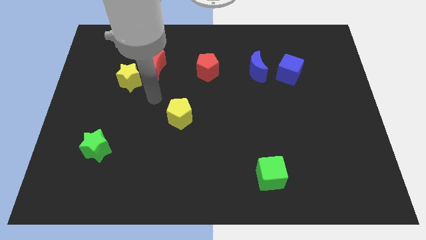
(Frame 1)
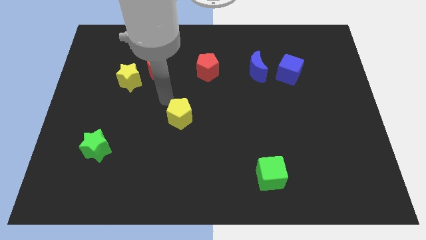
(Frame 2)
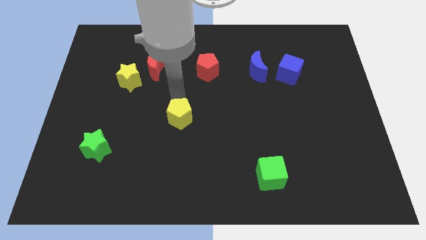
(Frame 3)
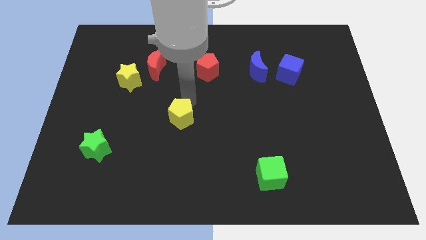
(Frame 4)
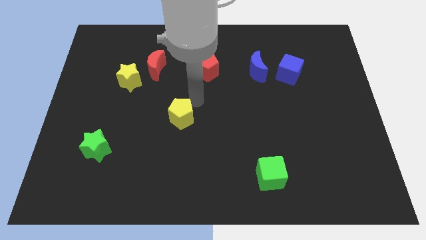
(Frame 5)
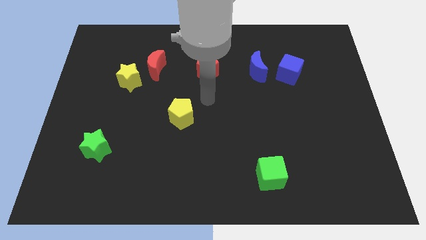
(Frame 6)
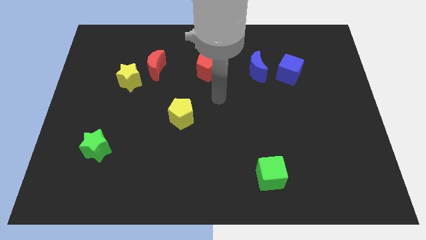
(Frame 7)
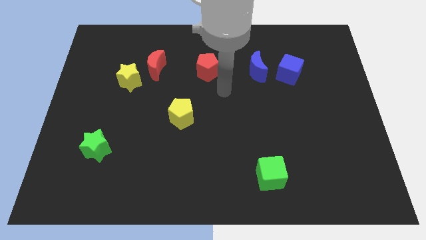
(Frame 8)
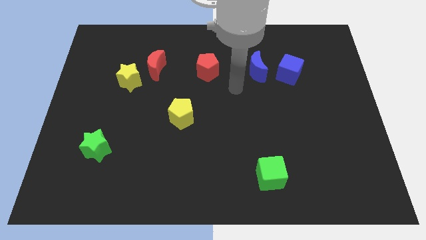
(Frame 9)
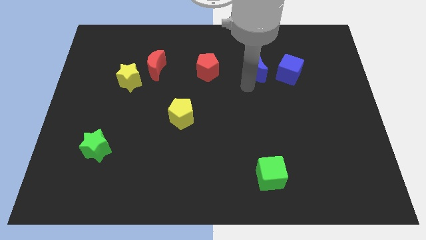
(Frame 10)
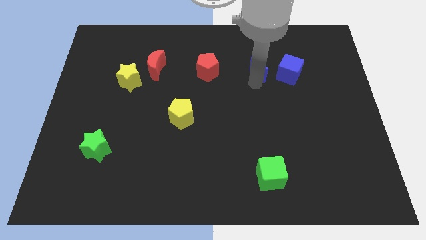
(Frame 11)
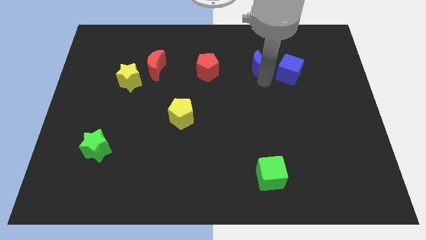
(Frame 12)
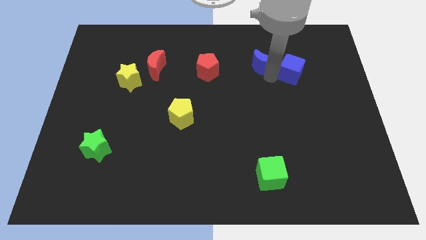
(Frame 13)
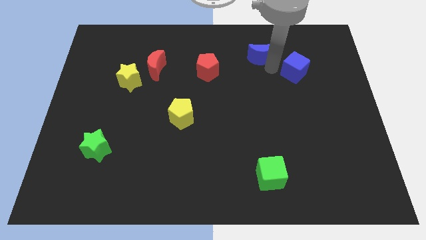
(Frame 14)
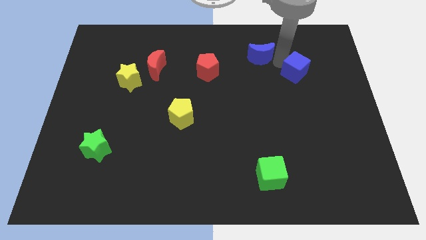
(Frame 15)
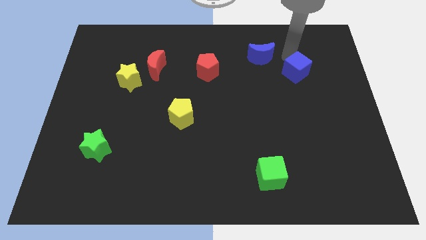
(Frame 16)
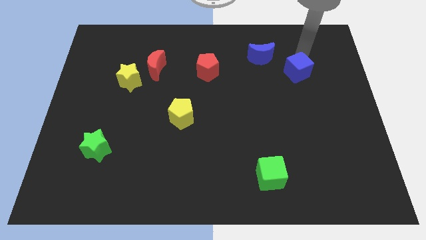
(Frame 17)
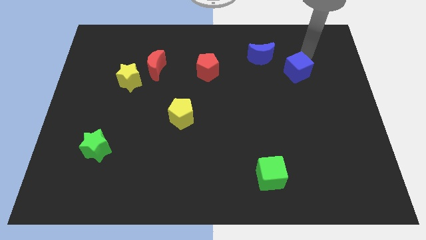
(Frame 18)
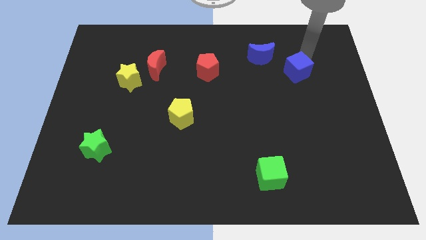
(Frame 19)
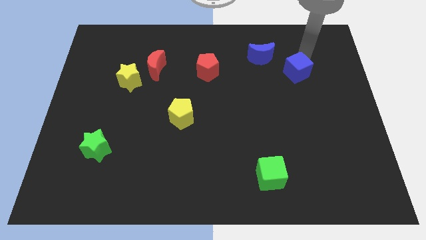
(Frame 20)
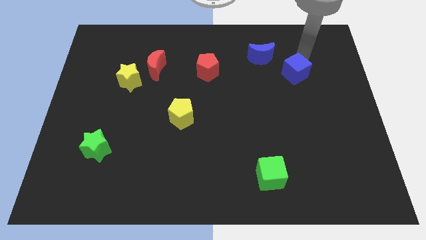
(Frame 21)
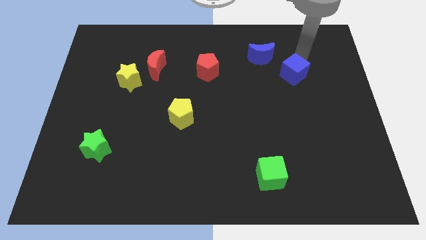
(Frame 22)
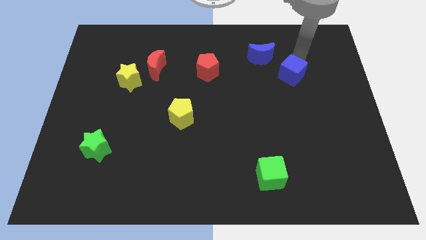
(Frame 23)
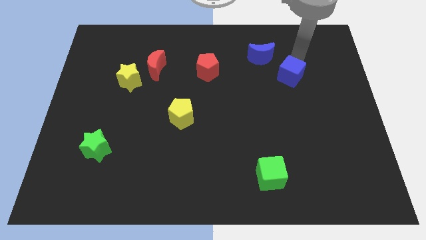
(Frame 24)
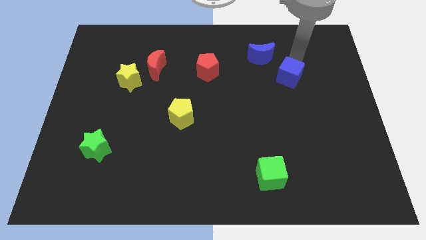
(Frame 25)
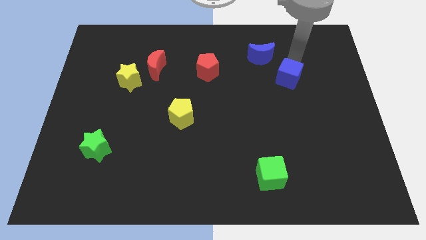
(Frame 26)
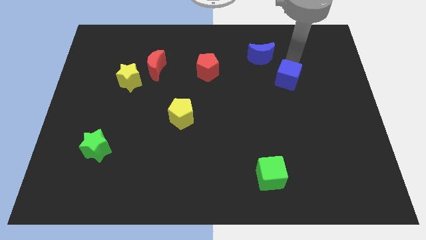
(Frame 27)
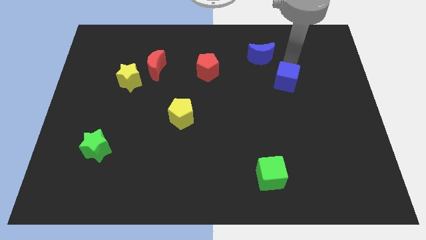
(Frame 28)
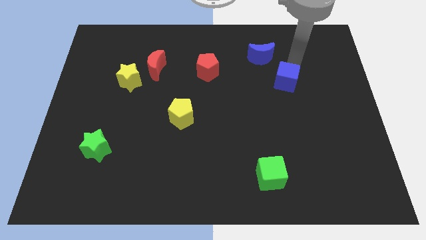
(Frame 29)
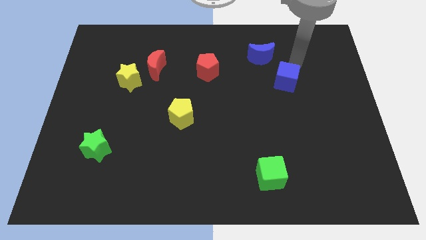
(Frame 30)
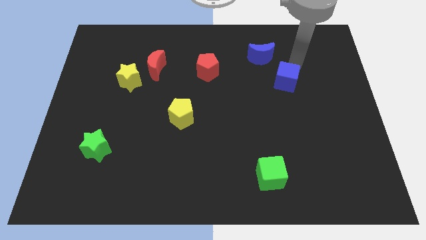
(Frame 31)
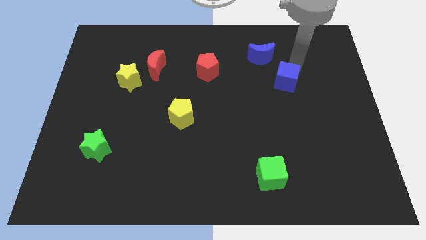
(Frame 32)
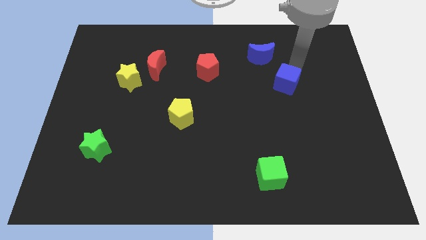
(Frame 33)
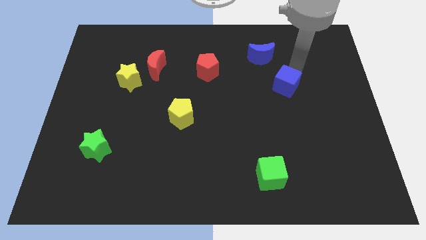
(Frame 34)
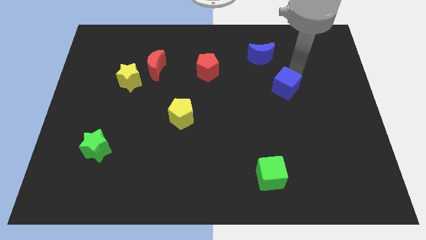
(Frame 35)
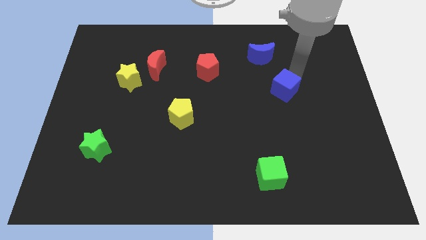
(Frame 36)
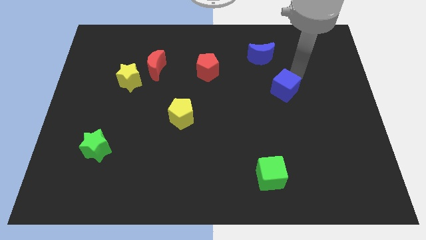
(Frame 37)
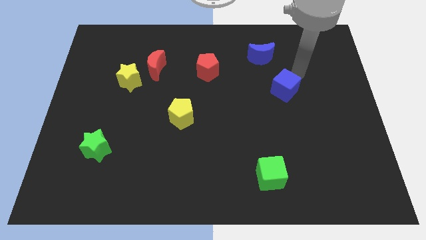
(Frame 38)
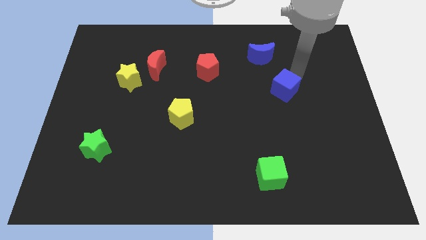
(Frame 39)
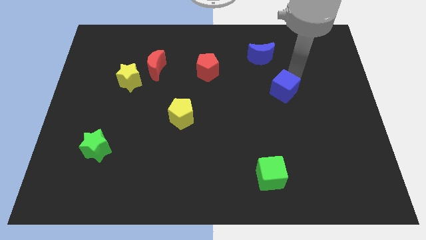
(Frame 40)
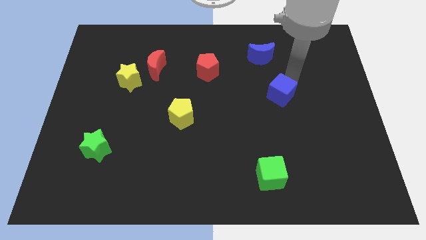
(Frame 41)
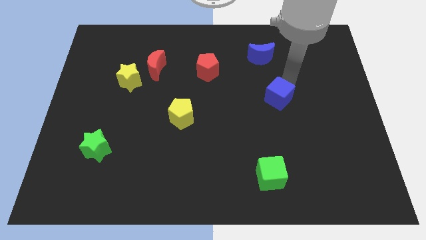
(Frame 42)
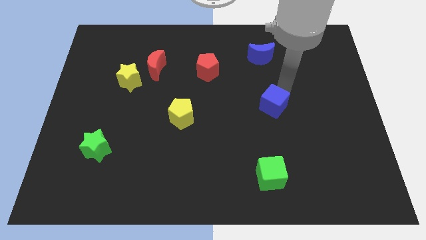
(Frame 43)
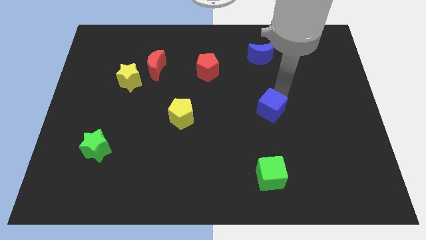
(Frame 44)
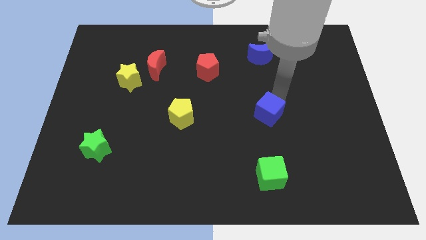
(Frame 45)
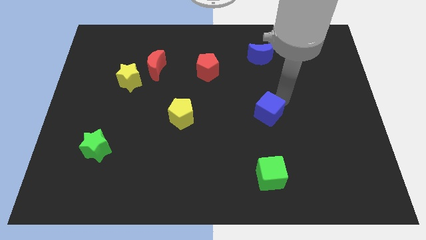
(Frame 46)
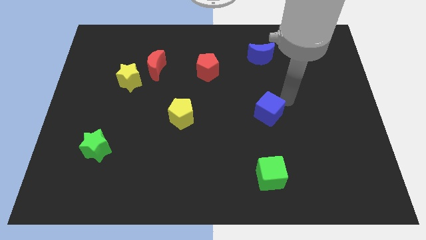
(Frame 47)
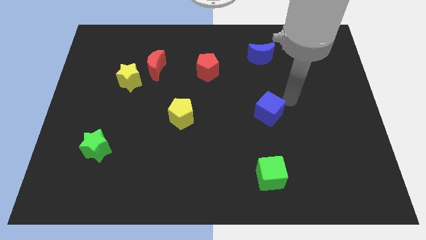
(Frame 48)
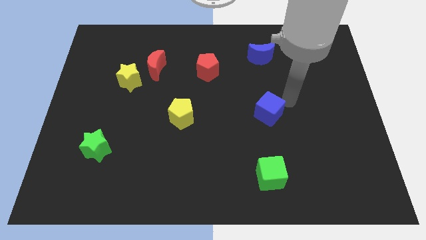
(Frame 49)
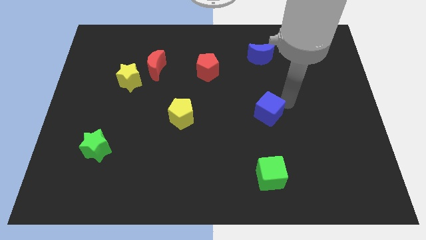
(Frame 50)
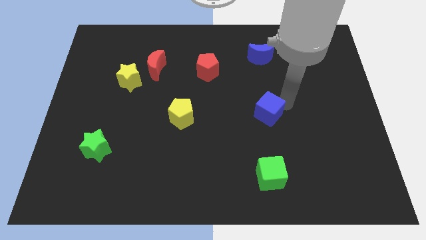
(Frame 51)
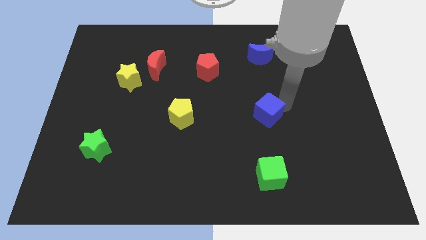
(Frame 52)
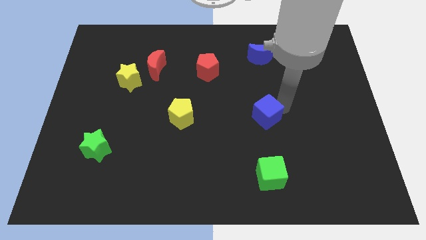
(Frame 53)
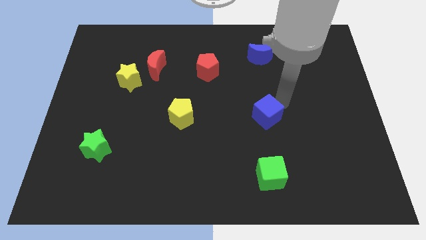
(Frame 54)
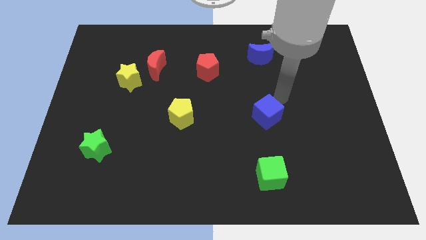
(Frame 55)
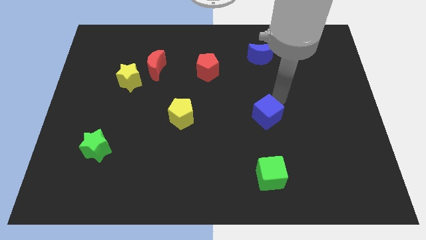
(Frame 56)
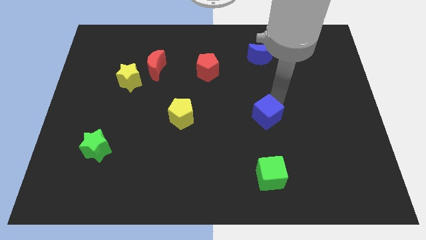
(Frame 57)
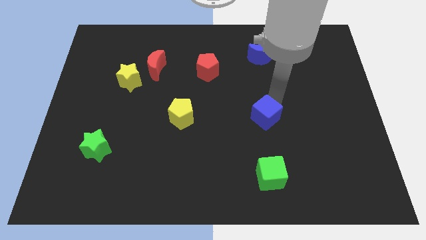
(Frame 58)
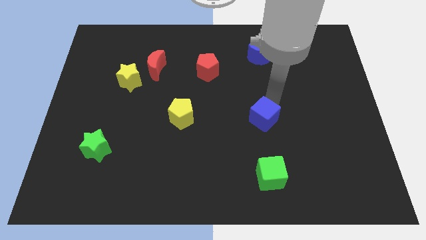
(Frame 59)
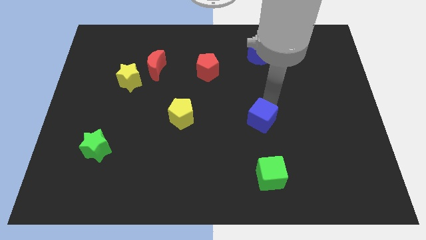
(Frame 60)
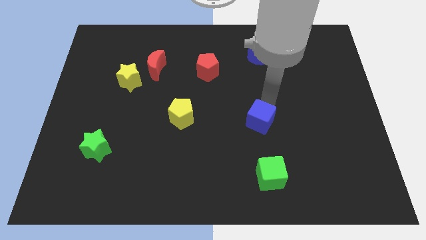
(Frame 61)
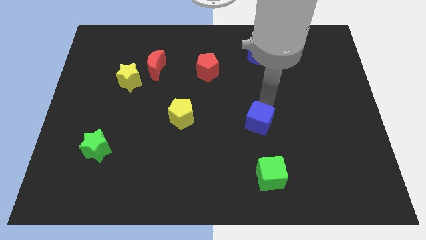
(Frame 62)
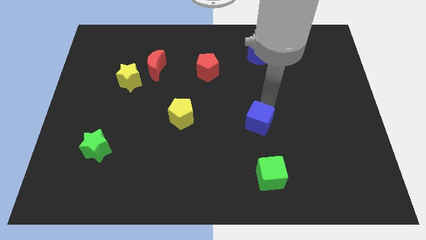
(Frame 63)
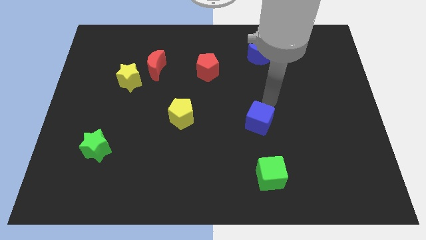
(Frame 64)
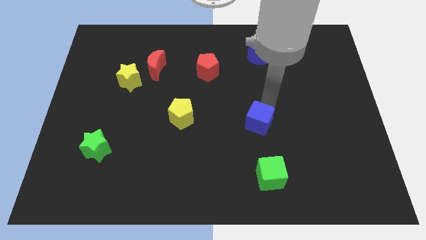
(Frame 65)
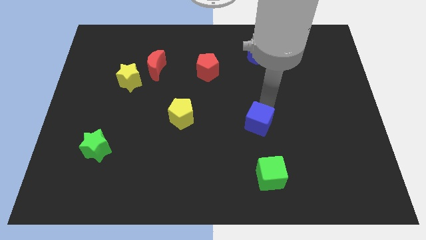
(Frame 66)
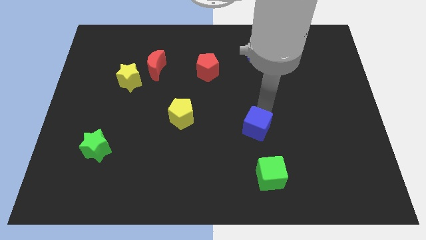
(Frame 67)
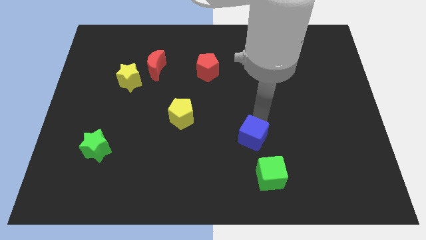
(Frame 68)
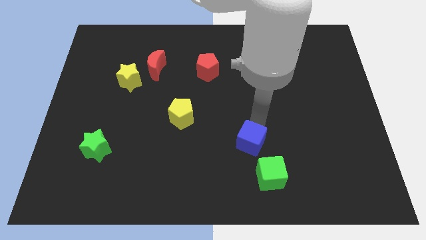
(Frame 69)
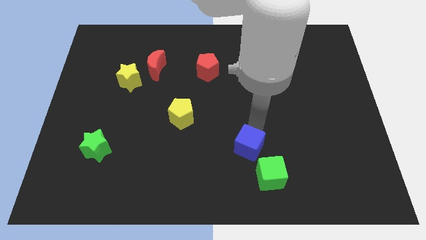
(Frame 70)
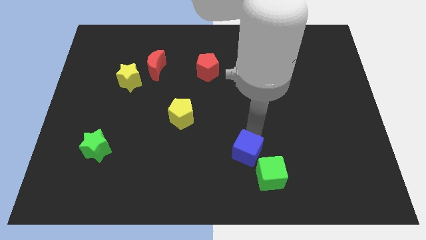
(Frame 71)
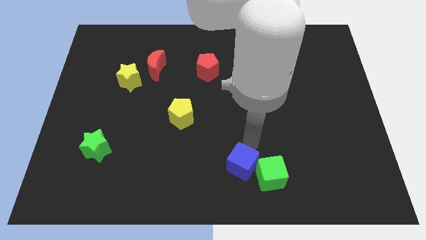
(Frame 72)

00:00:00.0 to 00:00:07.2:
move the blue cube to the bottom
